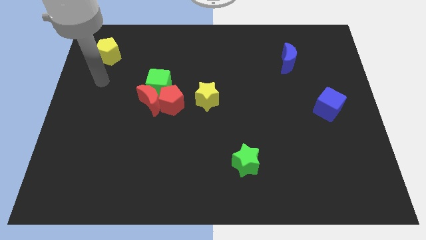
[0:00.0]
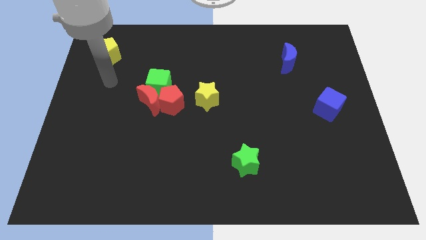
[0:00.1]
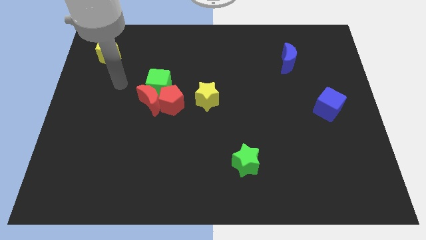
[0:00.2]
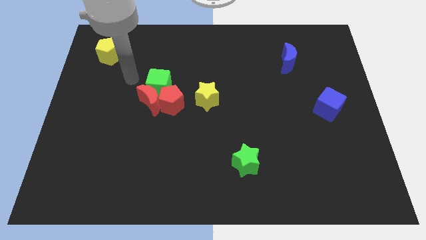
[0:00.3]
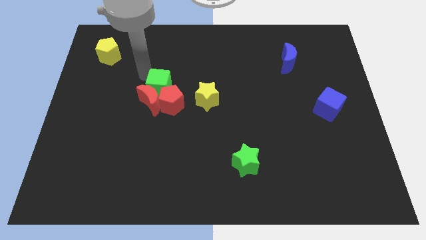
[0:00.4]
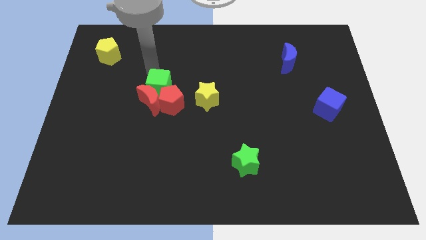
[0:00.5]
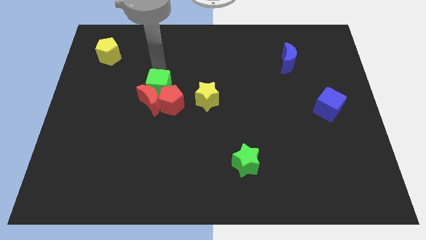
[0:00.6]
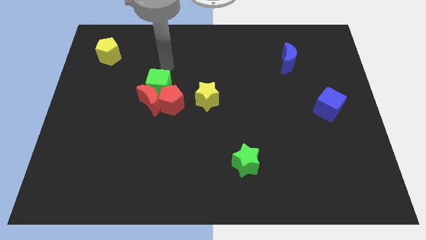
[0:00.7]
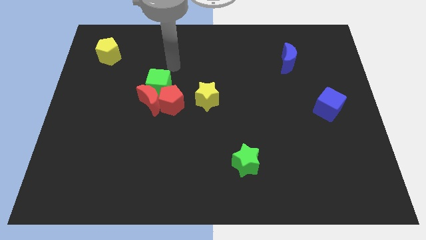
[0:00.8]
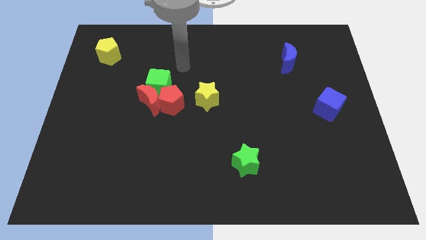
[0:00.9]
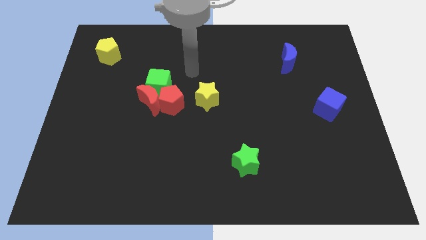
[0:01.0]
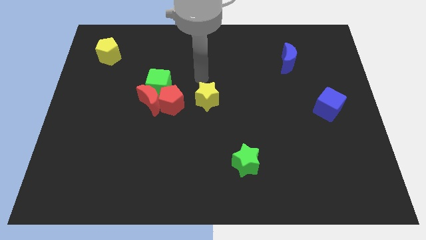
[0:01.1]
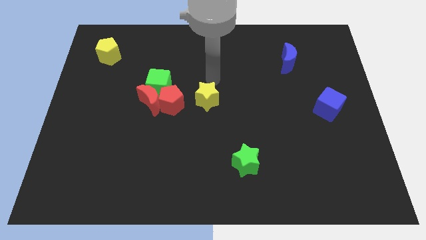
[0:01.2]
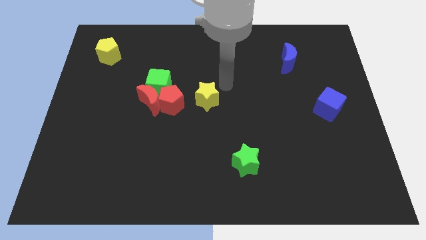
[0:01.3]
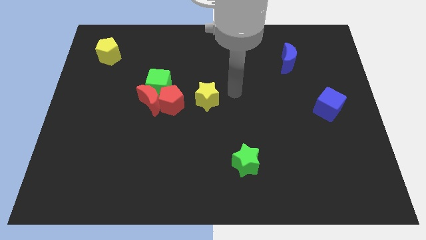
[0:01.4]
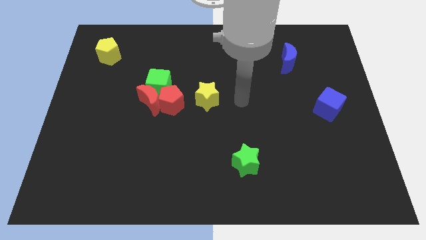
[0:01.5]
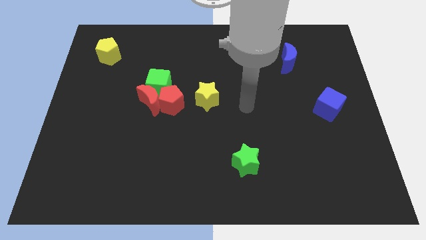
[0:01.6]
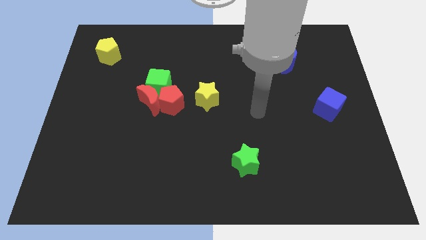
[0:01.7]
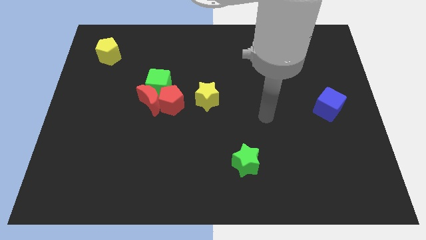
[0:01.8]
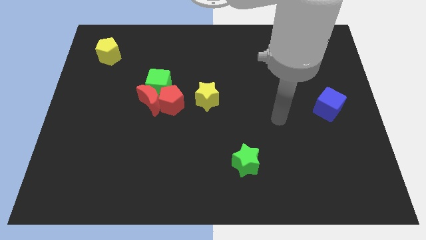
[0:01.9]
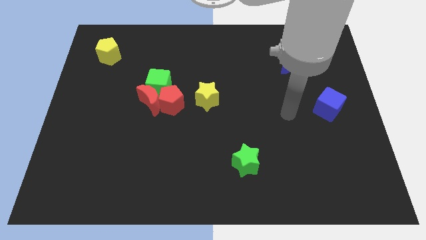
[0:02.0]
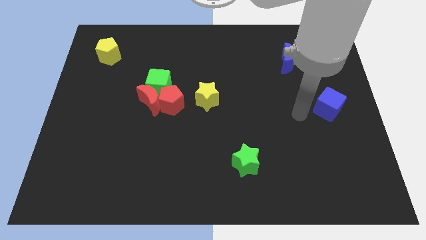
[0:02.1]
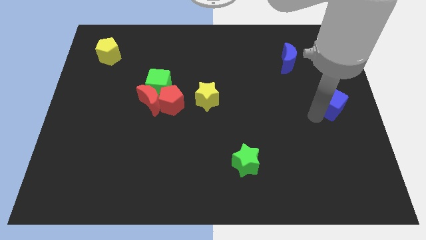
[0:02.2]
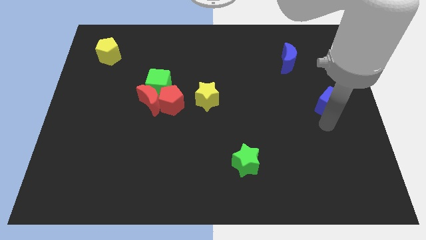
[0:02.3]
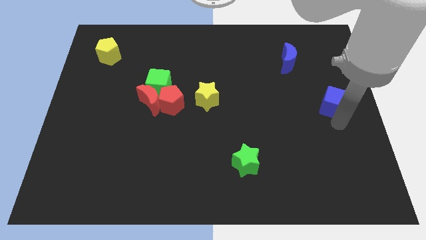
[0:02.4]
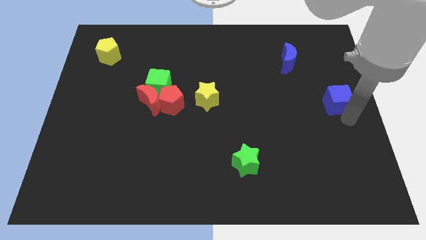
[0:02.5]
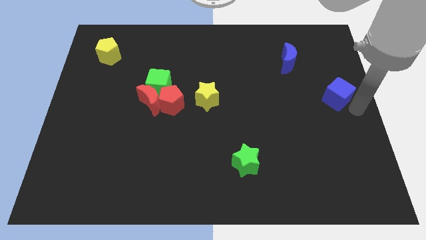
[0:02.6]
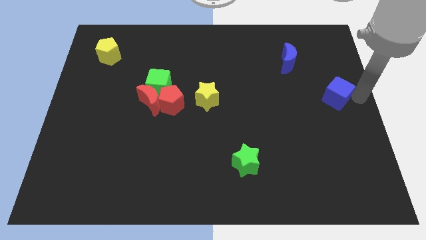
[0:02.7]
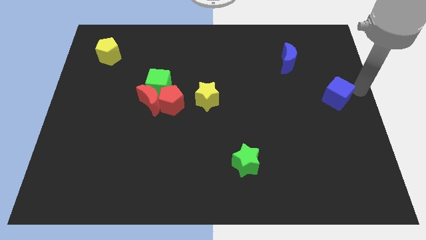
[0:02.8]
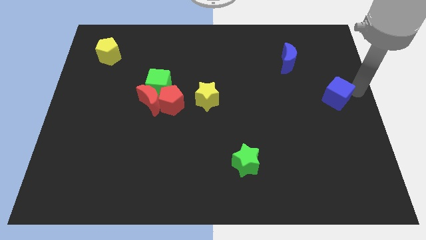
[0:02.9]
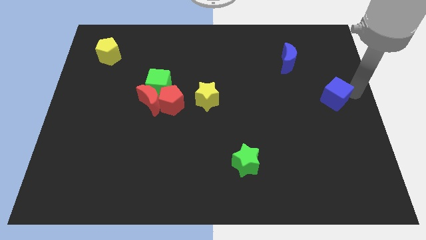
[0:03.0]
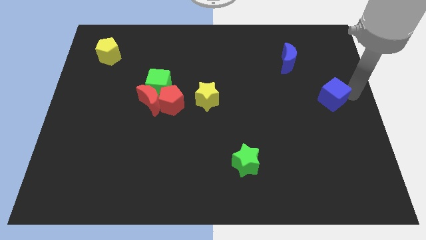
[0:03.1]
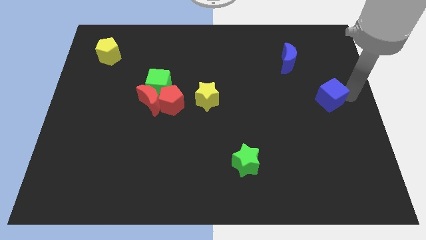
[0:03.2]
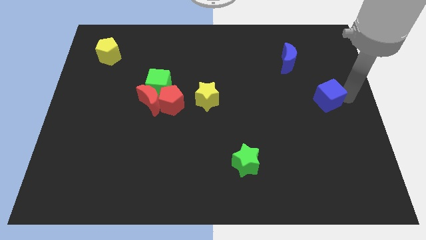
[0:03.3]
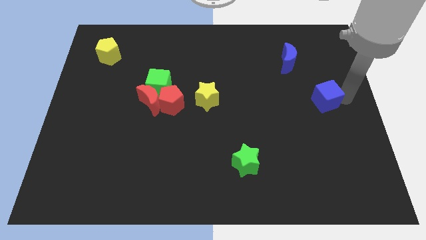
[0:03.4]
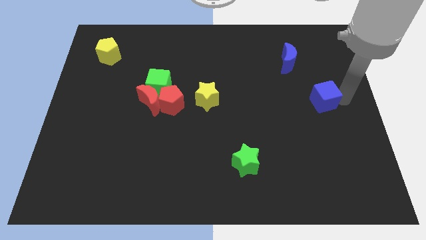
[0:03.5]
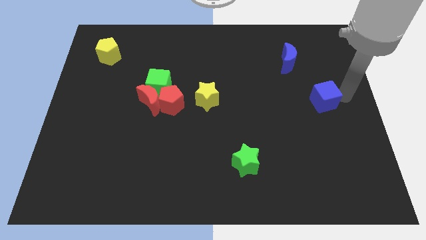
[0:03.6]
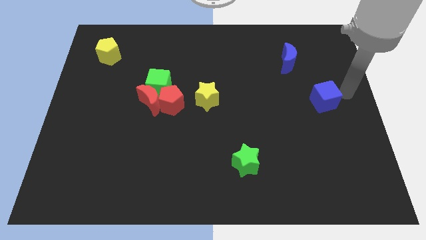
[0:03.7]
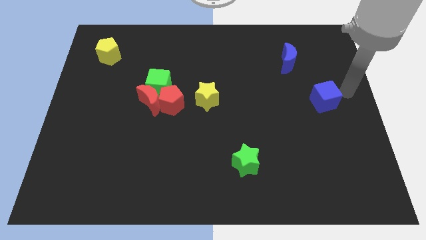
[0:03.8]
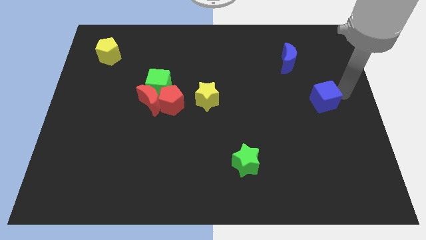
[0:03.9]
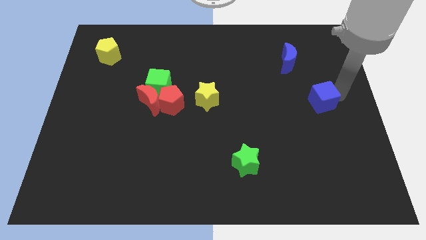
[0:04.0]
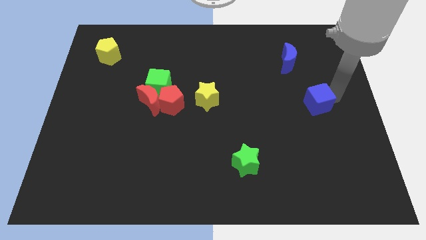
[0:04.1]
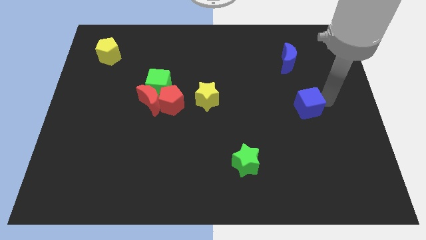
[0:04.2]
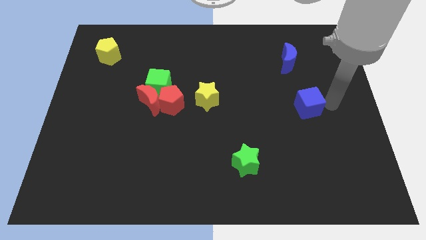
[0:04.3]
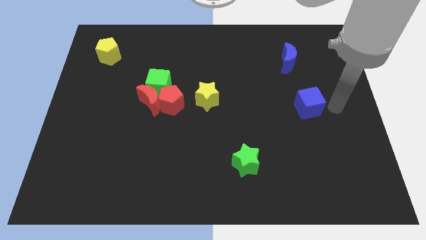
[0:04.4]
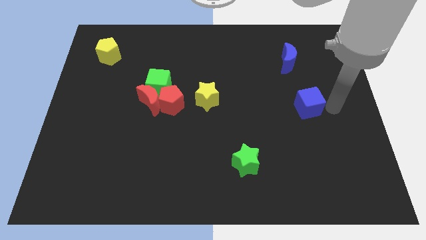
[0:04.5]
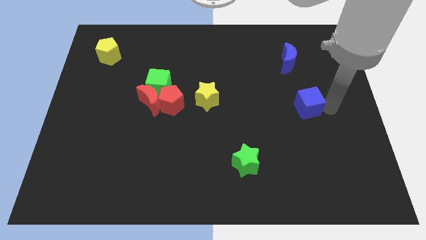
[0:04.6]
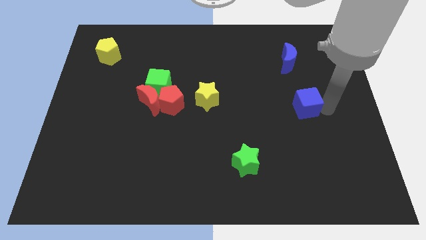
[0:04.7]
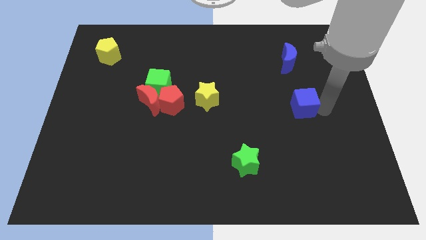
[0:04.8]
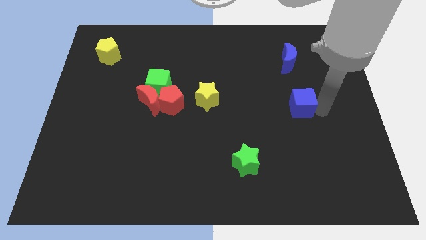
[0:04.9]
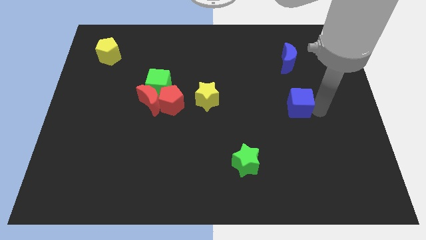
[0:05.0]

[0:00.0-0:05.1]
slightly push the blue cube left

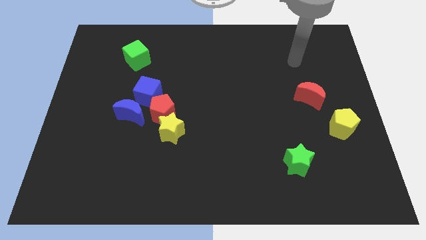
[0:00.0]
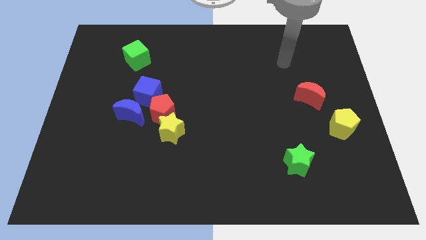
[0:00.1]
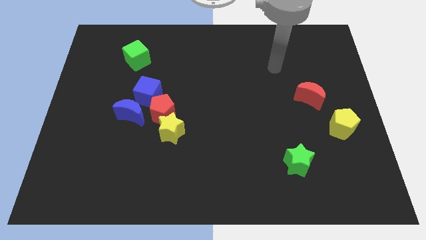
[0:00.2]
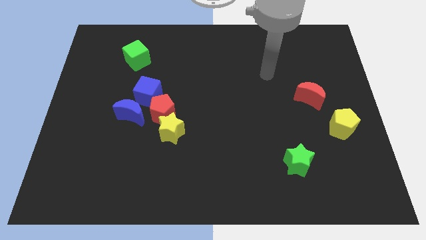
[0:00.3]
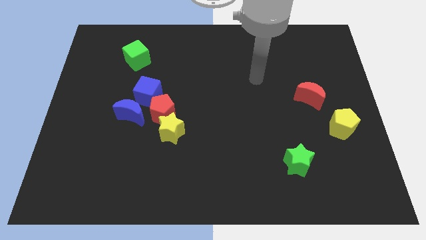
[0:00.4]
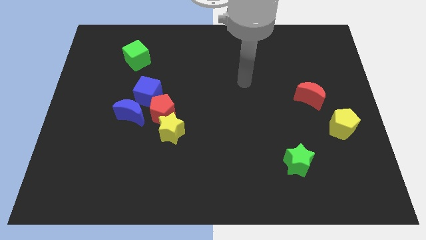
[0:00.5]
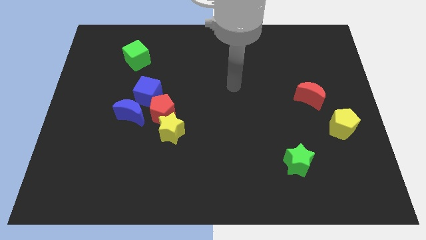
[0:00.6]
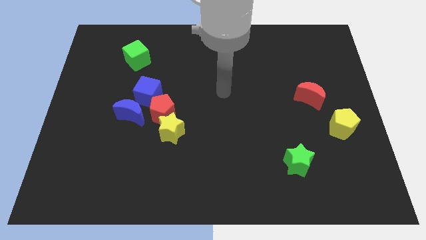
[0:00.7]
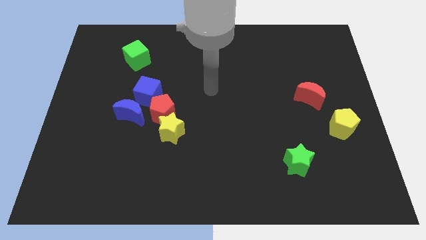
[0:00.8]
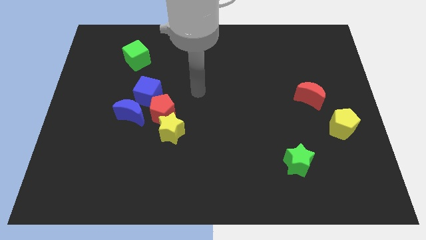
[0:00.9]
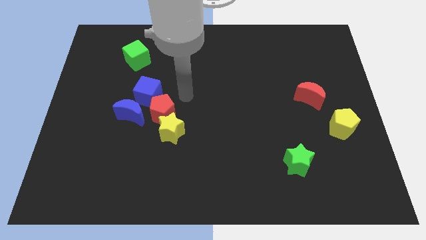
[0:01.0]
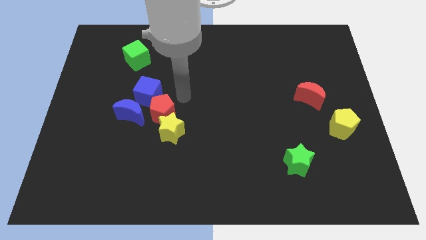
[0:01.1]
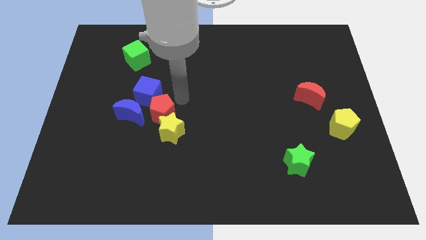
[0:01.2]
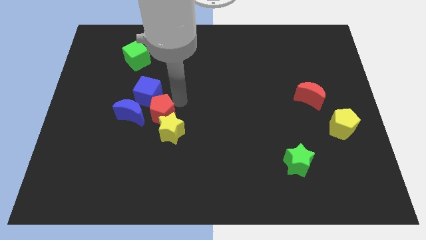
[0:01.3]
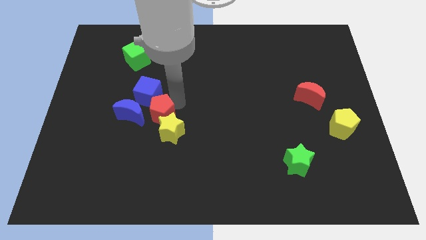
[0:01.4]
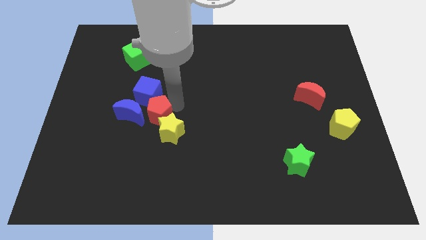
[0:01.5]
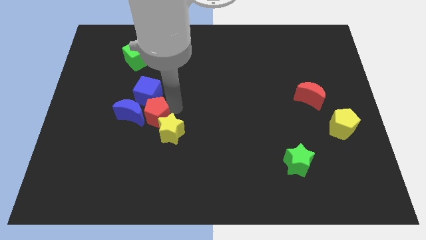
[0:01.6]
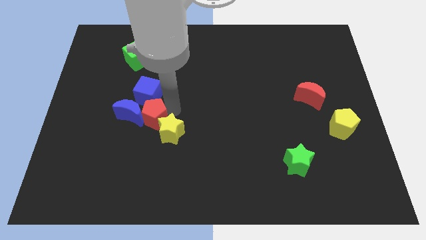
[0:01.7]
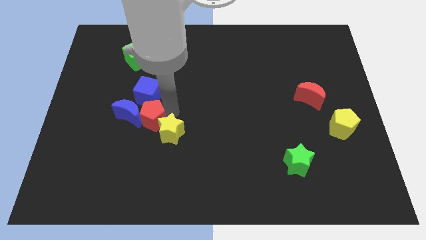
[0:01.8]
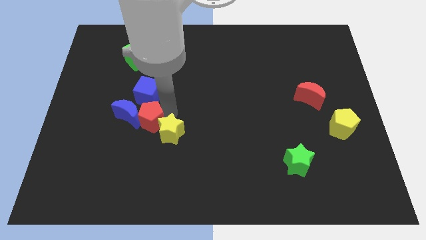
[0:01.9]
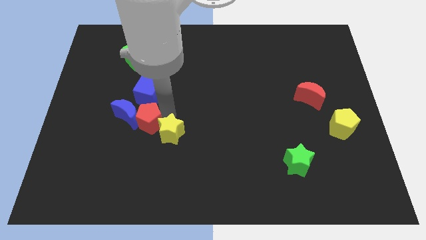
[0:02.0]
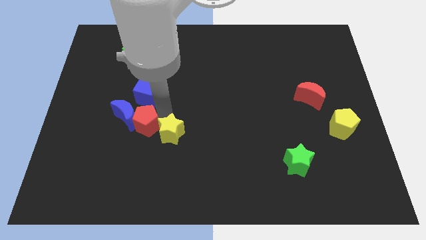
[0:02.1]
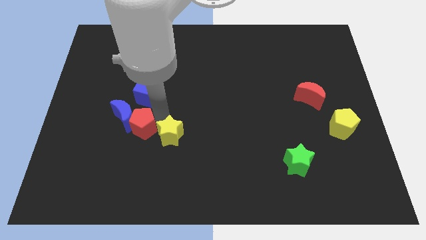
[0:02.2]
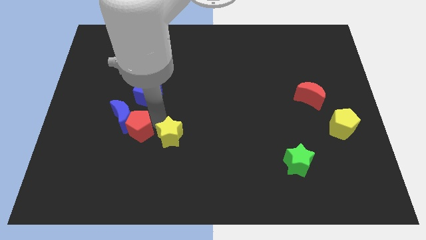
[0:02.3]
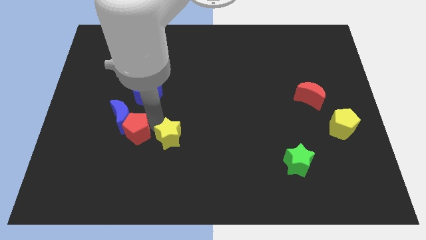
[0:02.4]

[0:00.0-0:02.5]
move the red pentagon slightly diagonally downwards and to the left
